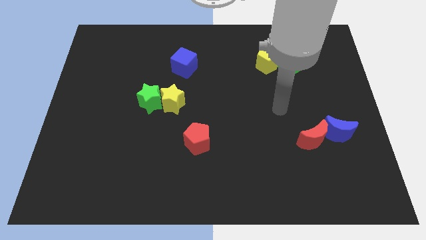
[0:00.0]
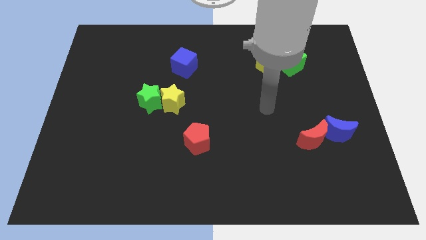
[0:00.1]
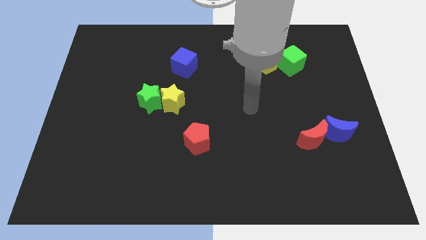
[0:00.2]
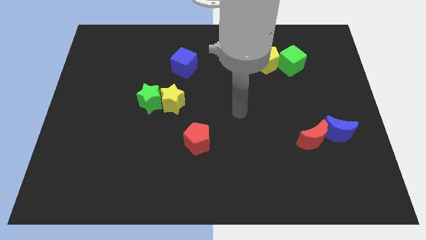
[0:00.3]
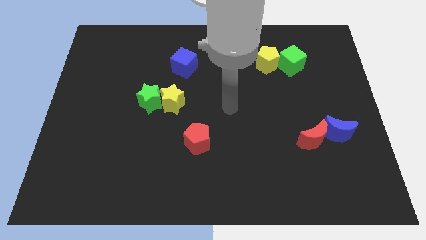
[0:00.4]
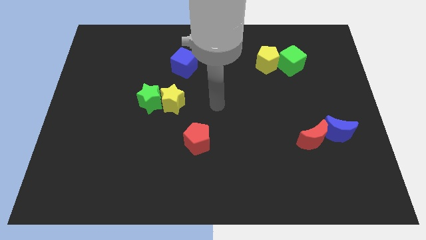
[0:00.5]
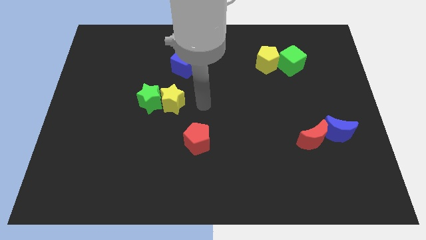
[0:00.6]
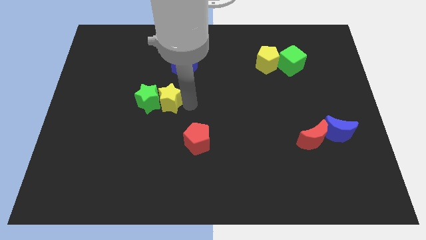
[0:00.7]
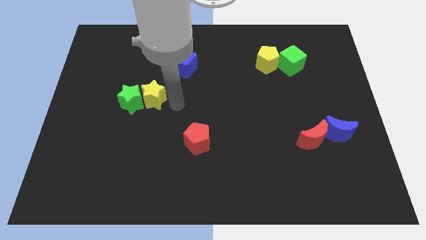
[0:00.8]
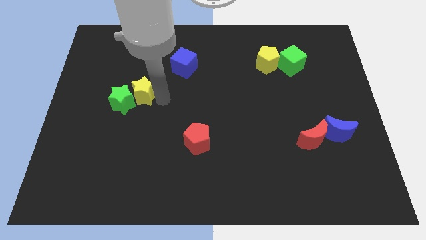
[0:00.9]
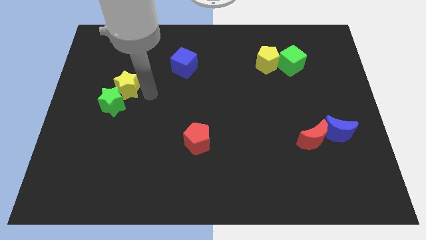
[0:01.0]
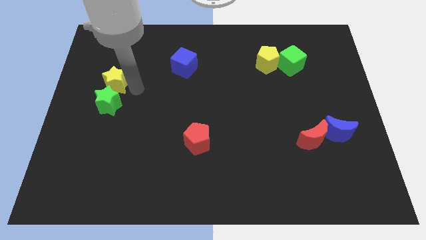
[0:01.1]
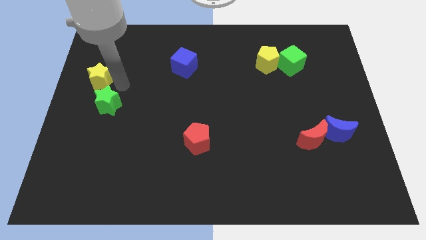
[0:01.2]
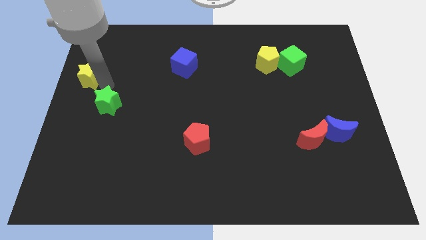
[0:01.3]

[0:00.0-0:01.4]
pull the green star apart from the yellow star

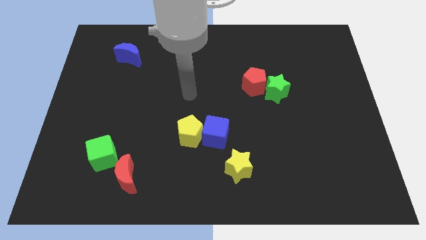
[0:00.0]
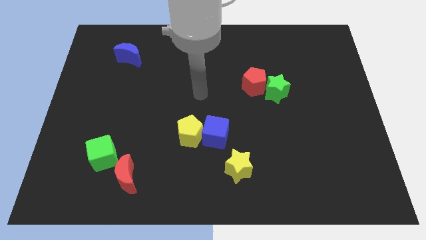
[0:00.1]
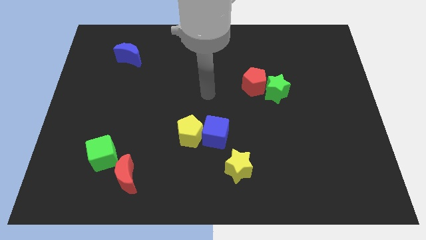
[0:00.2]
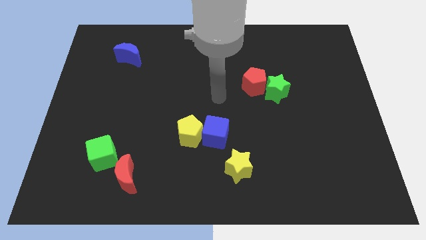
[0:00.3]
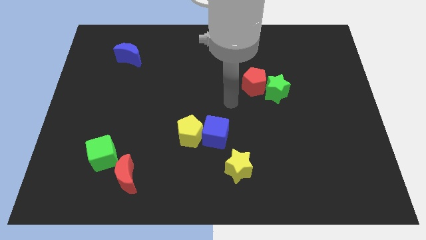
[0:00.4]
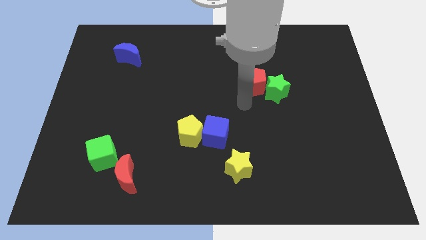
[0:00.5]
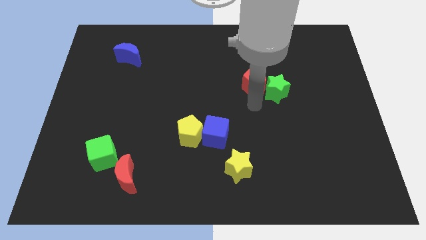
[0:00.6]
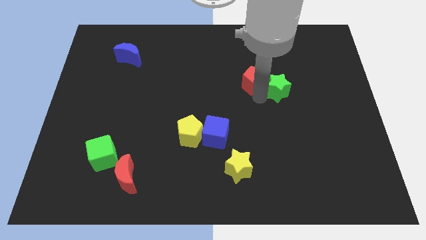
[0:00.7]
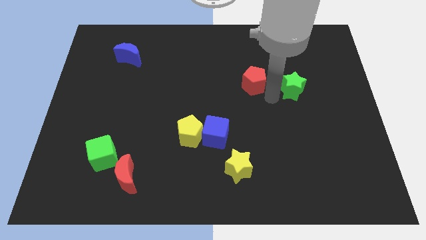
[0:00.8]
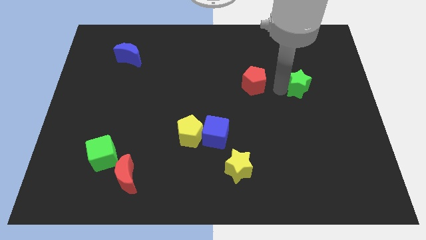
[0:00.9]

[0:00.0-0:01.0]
separate the red pentagon from the green star

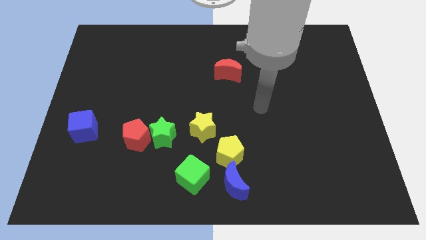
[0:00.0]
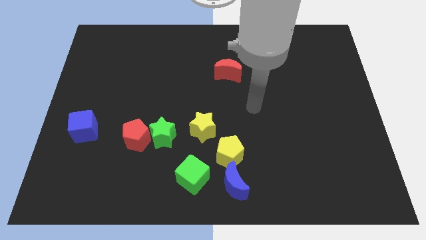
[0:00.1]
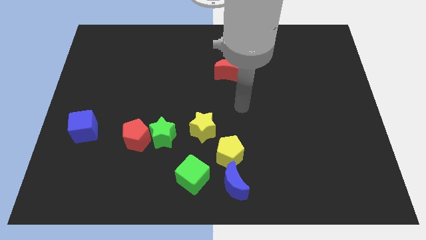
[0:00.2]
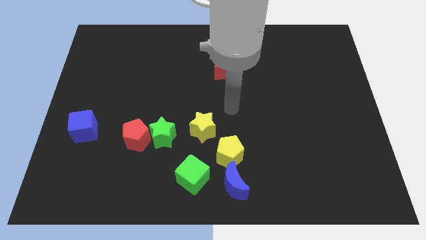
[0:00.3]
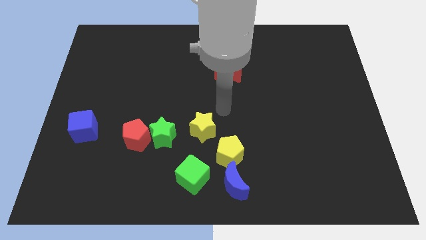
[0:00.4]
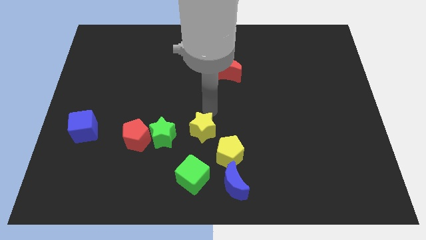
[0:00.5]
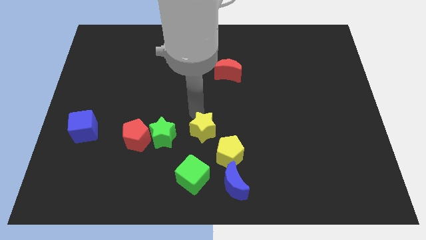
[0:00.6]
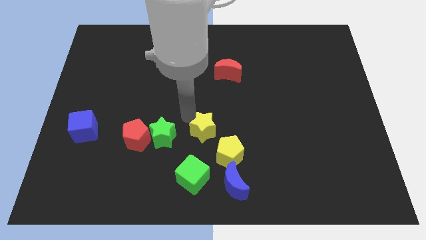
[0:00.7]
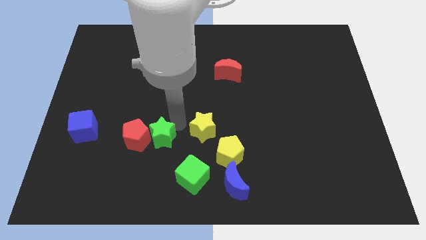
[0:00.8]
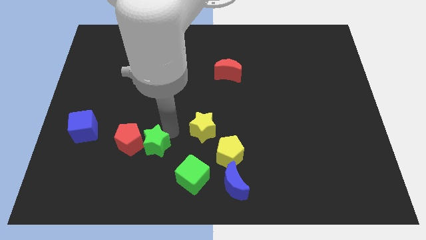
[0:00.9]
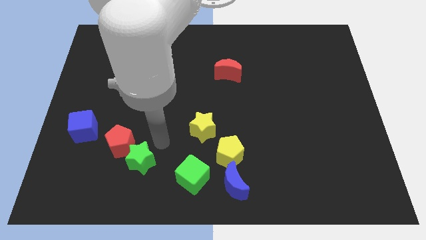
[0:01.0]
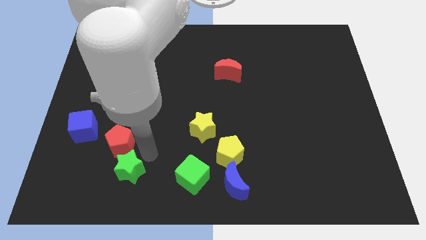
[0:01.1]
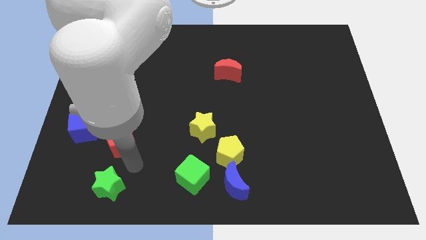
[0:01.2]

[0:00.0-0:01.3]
move the red pentagon away from the green star

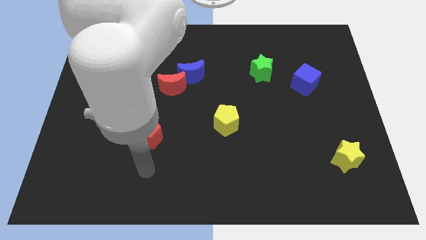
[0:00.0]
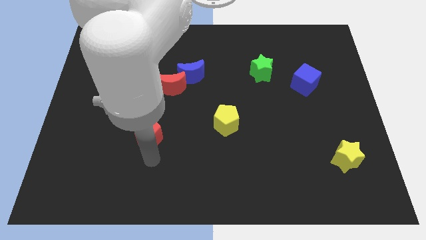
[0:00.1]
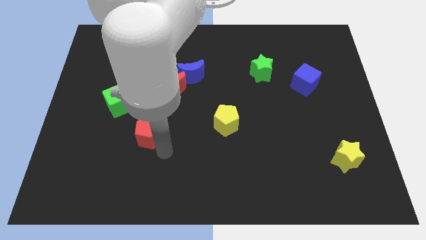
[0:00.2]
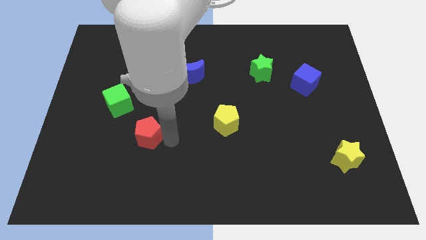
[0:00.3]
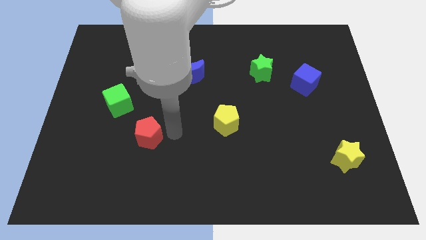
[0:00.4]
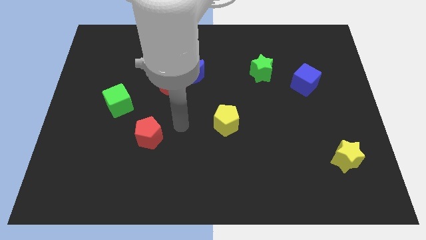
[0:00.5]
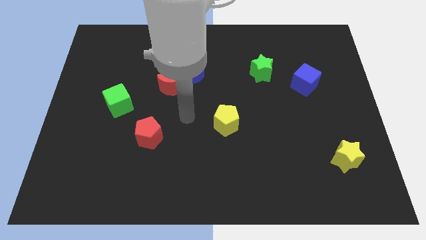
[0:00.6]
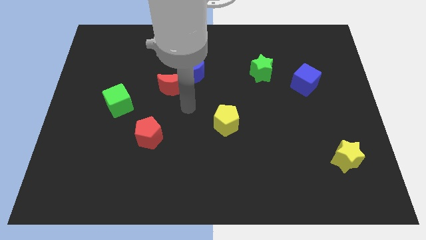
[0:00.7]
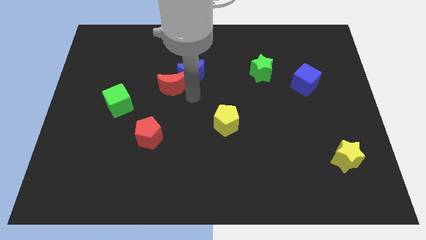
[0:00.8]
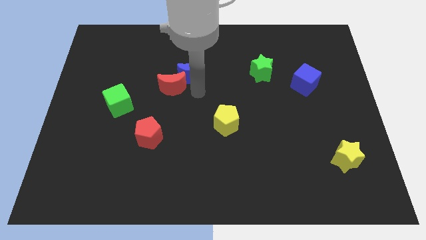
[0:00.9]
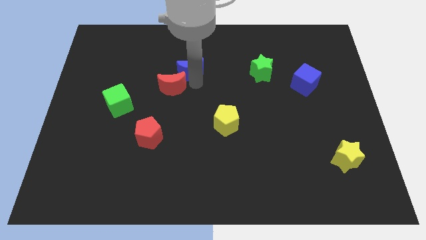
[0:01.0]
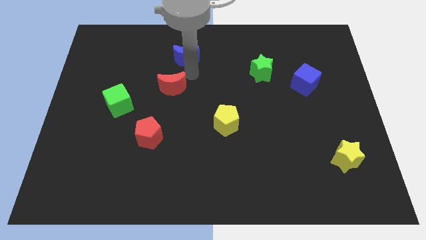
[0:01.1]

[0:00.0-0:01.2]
pull the red moon apart from the blue moon

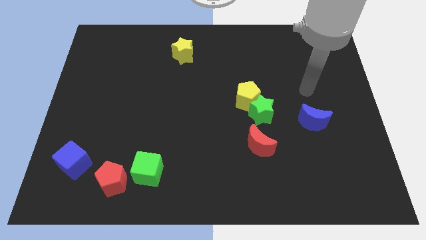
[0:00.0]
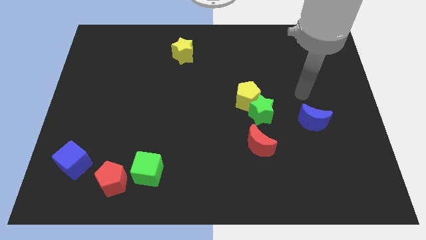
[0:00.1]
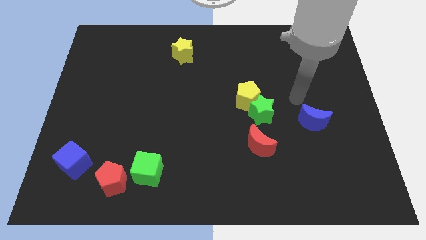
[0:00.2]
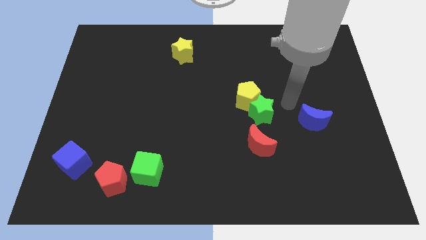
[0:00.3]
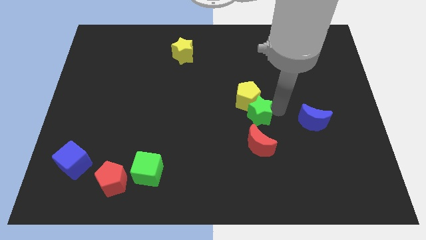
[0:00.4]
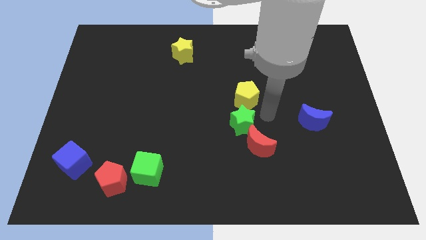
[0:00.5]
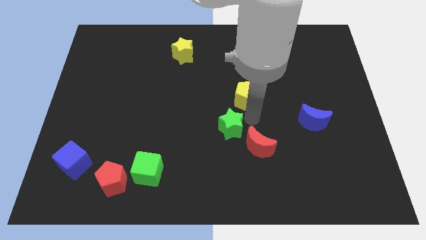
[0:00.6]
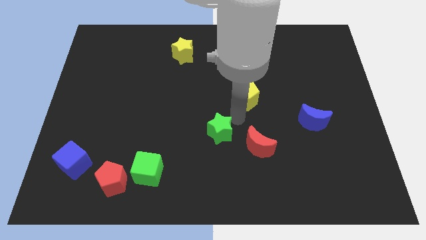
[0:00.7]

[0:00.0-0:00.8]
pull the yellow pentagon apart from the green star

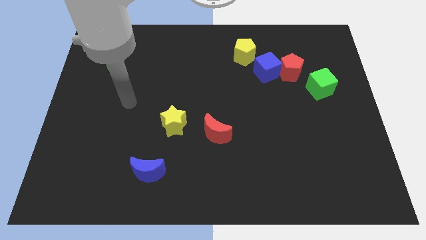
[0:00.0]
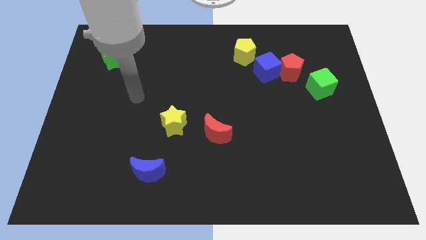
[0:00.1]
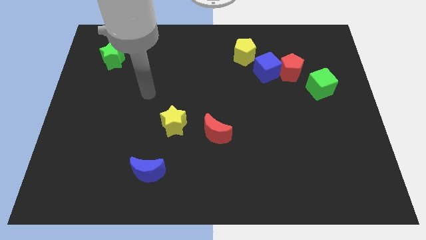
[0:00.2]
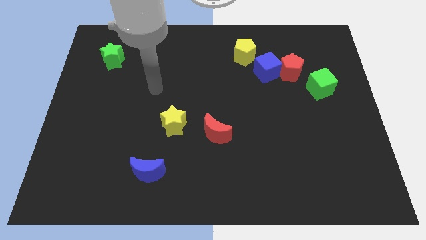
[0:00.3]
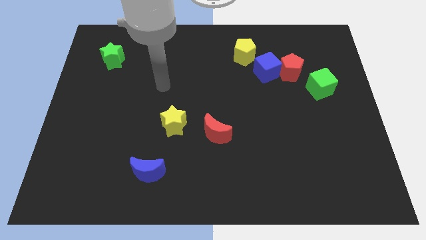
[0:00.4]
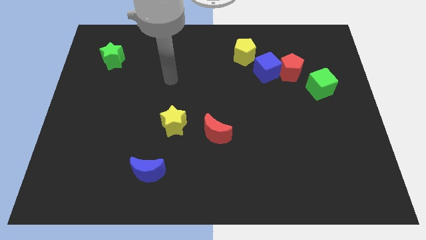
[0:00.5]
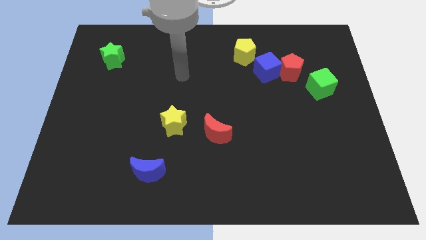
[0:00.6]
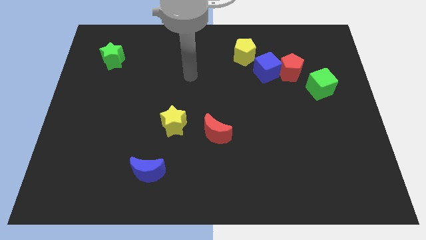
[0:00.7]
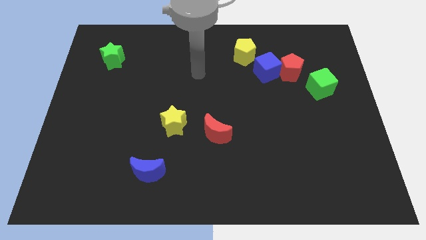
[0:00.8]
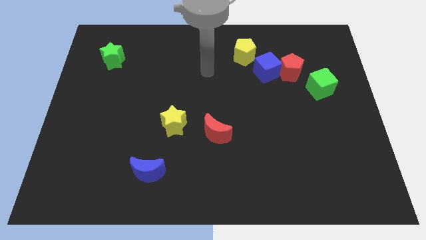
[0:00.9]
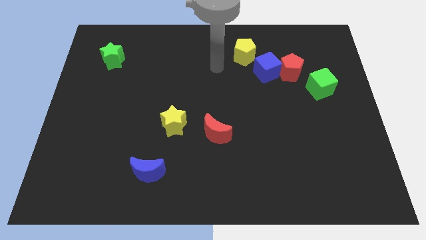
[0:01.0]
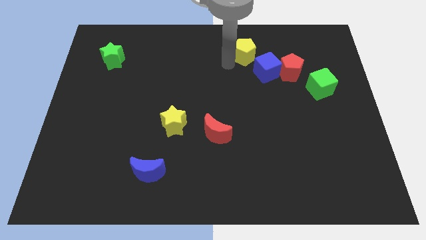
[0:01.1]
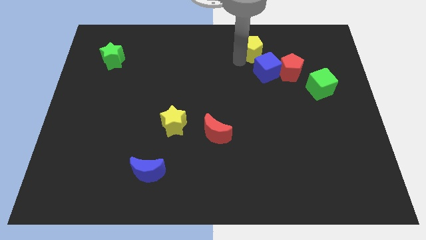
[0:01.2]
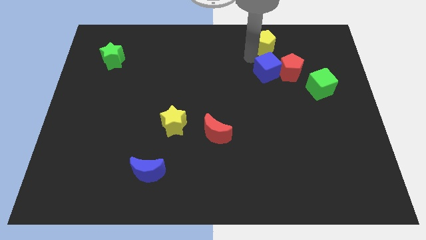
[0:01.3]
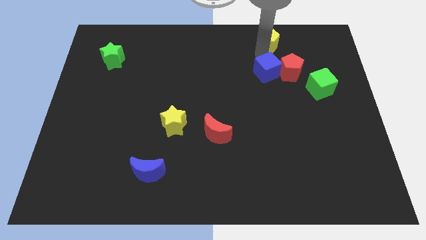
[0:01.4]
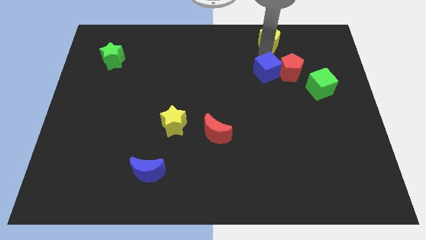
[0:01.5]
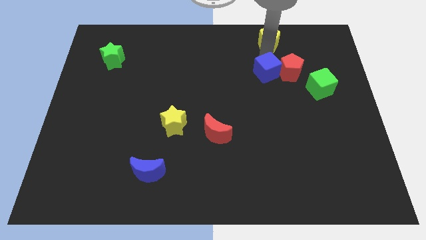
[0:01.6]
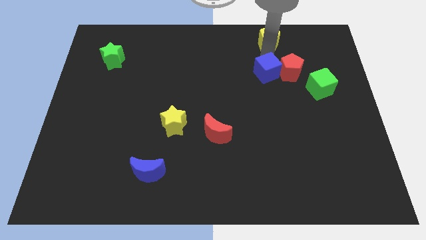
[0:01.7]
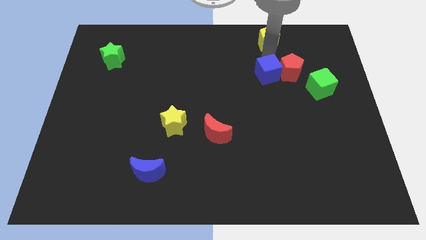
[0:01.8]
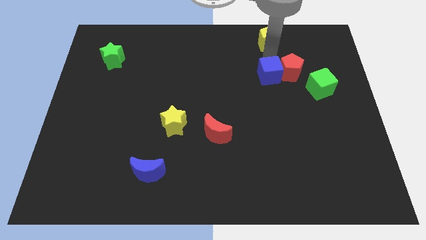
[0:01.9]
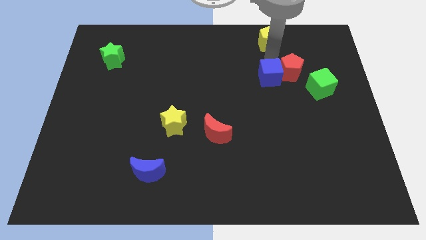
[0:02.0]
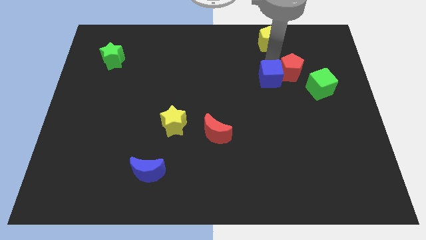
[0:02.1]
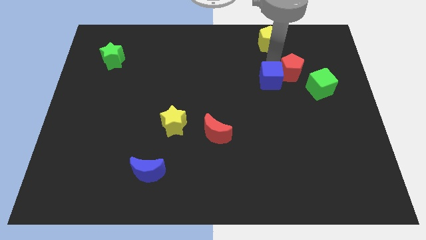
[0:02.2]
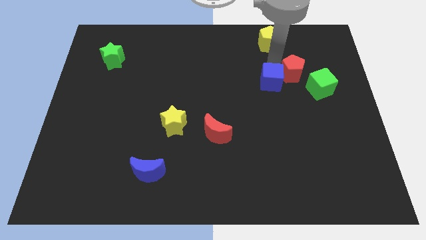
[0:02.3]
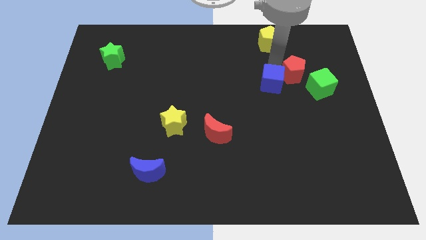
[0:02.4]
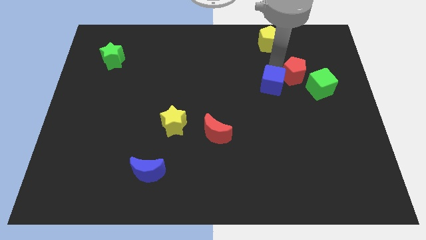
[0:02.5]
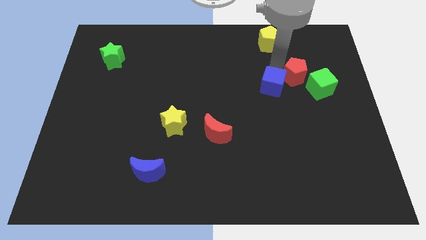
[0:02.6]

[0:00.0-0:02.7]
pull the blue cube apart from the red pentagon and yellow pentagon

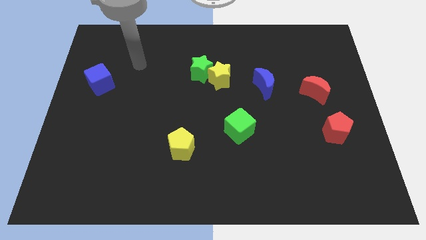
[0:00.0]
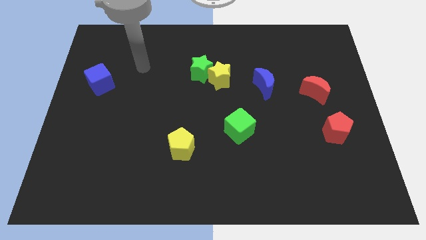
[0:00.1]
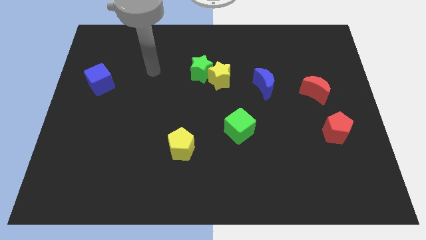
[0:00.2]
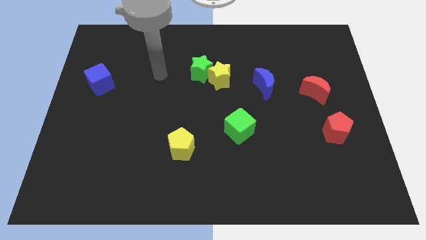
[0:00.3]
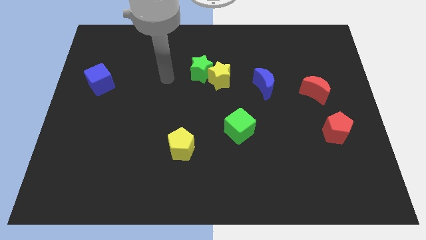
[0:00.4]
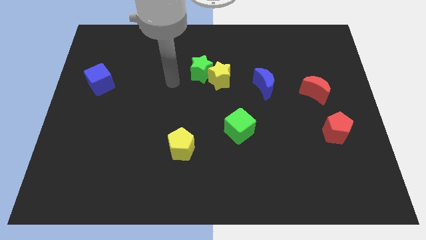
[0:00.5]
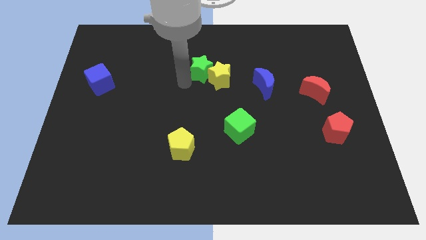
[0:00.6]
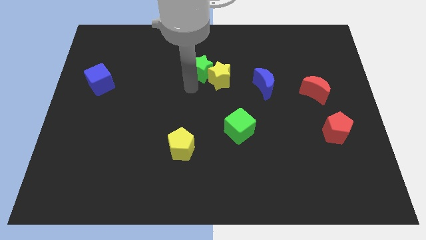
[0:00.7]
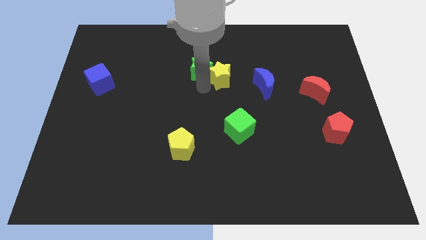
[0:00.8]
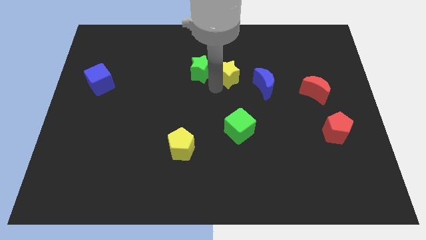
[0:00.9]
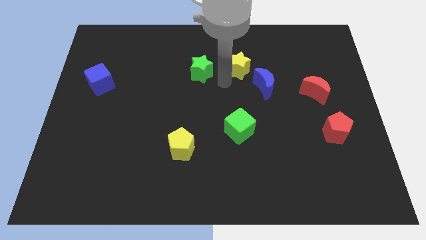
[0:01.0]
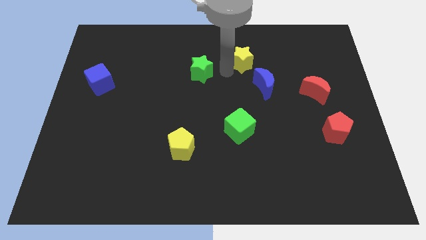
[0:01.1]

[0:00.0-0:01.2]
move the green star away from the yellow star
